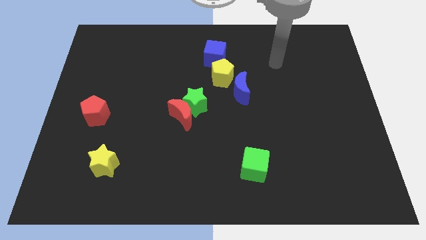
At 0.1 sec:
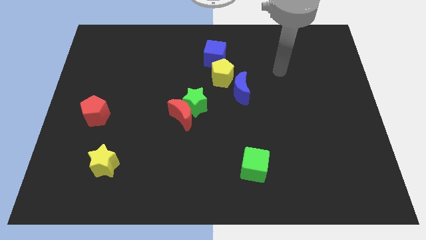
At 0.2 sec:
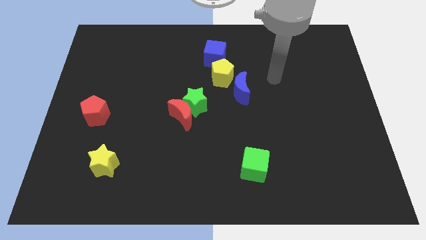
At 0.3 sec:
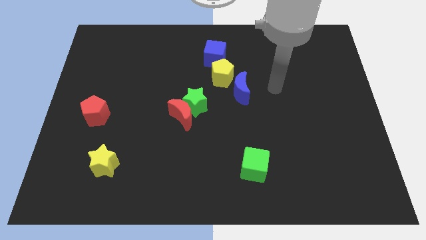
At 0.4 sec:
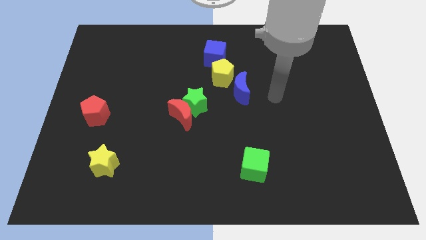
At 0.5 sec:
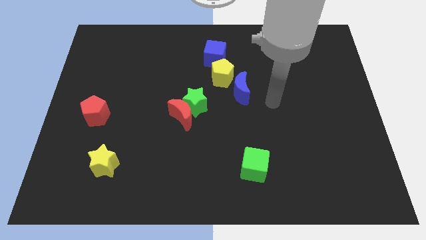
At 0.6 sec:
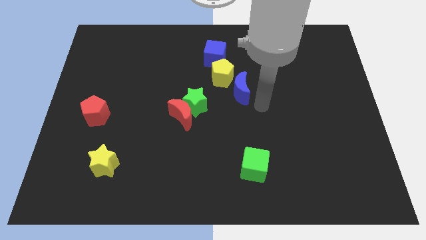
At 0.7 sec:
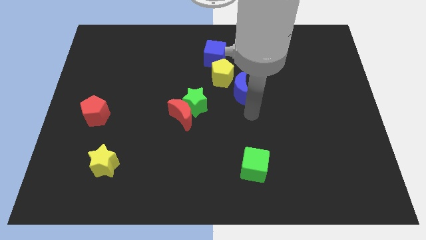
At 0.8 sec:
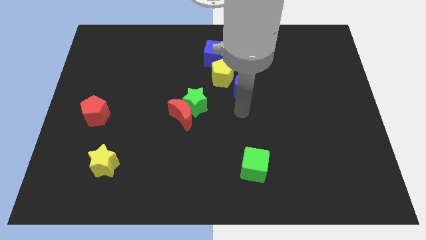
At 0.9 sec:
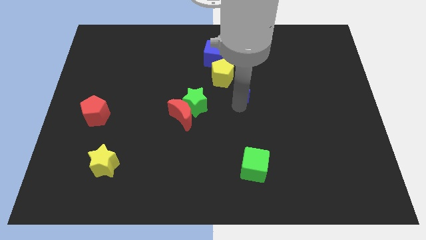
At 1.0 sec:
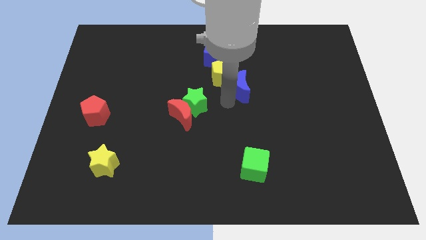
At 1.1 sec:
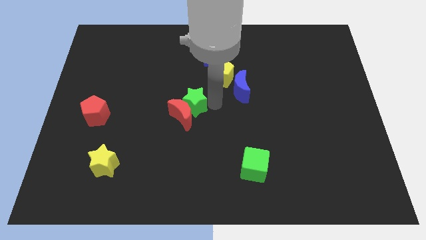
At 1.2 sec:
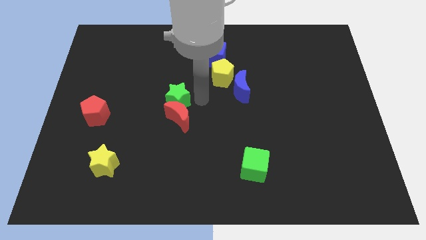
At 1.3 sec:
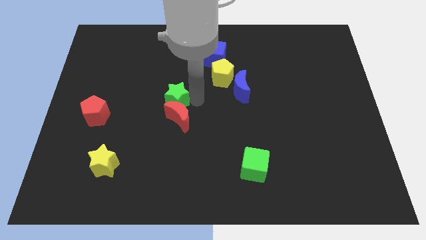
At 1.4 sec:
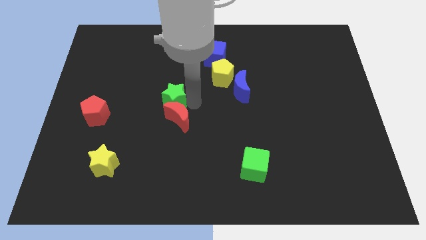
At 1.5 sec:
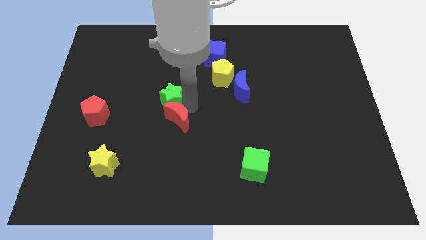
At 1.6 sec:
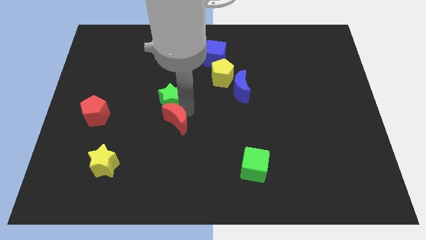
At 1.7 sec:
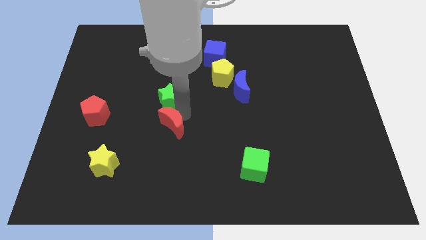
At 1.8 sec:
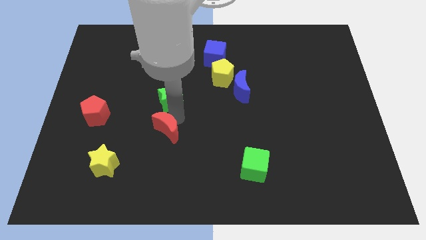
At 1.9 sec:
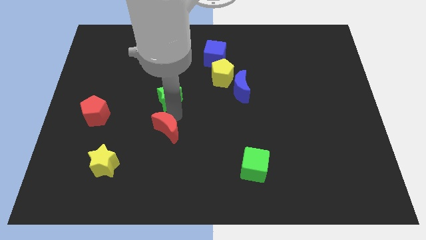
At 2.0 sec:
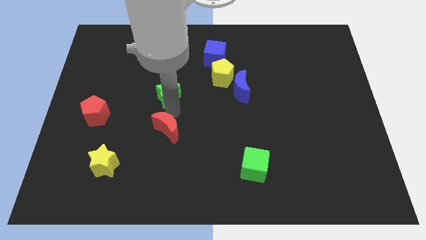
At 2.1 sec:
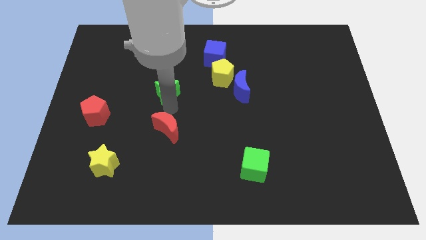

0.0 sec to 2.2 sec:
separate the red moon from the green star

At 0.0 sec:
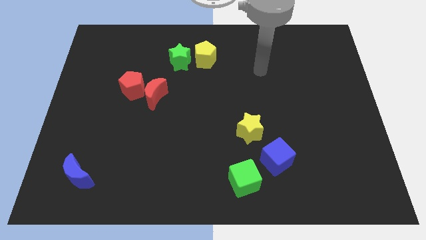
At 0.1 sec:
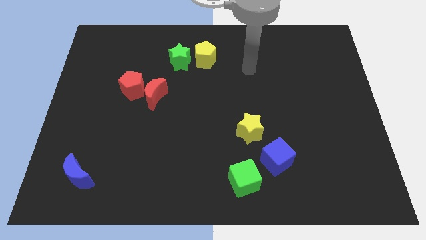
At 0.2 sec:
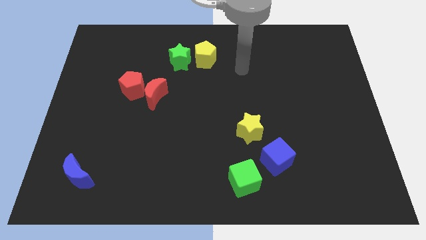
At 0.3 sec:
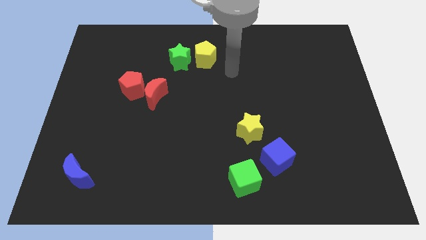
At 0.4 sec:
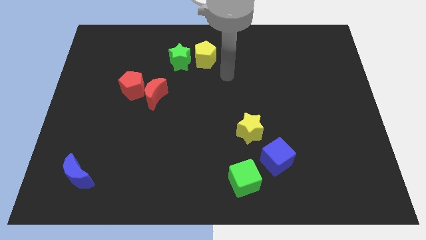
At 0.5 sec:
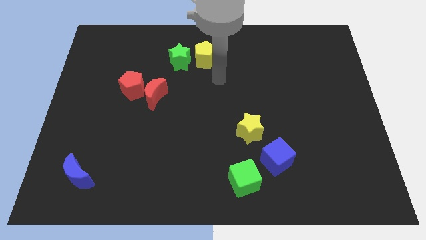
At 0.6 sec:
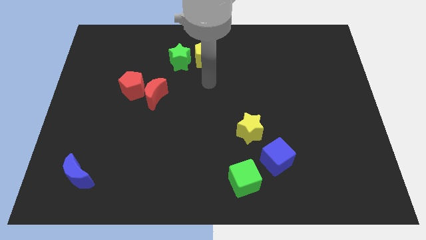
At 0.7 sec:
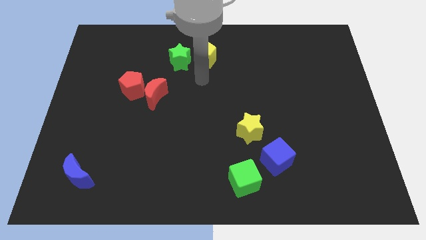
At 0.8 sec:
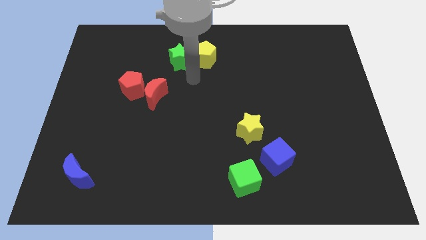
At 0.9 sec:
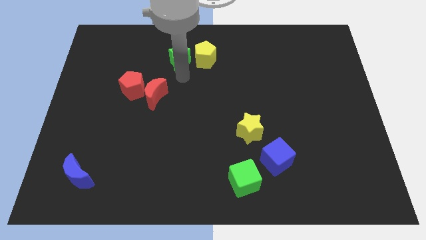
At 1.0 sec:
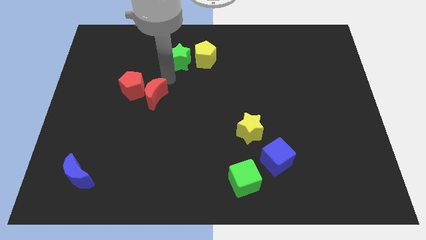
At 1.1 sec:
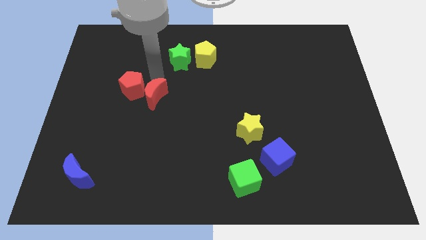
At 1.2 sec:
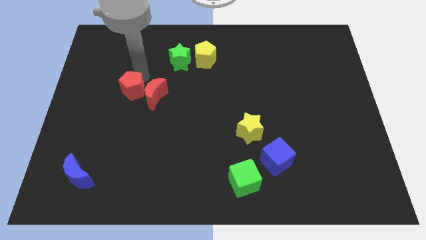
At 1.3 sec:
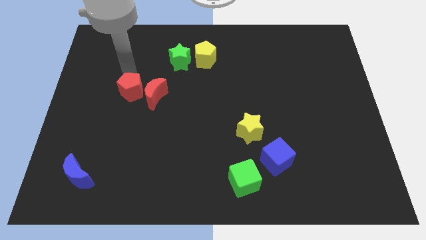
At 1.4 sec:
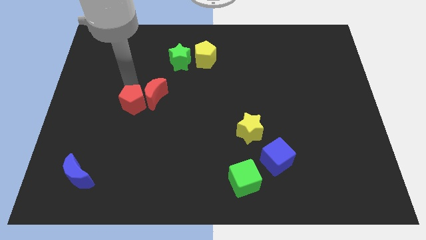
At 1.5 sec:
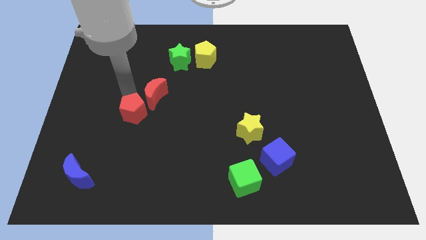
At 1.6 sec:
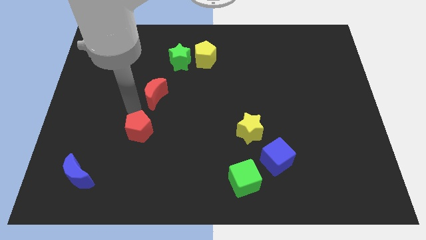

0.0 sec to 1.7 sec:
pull the red moon apart from the red pentagon

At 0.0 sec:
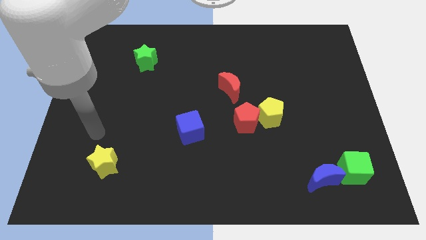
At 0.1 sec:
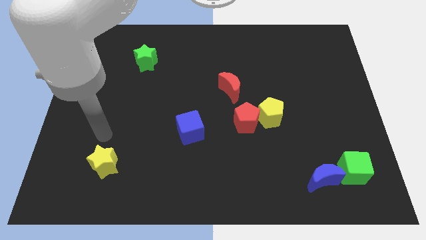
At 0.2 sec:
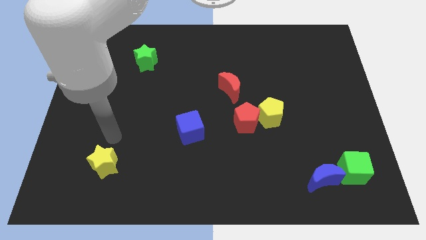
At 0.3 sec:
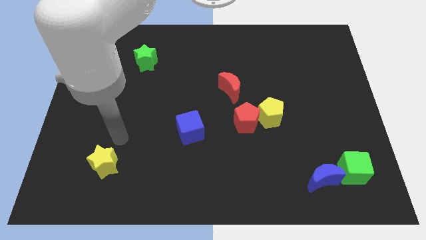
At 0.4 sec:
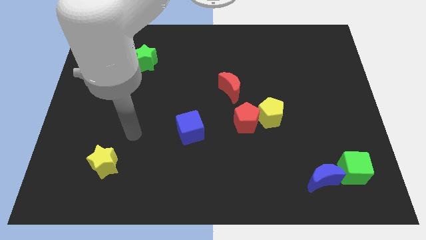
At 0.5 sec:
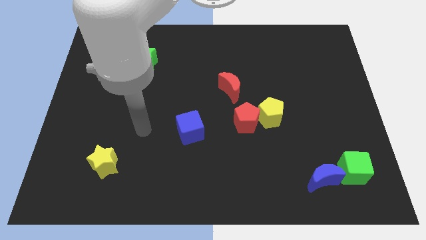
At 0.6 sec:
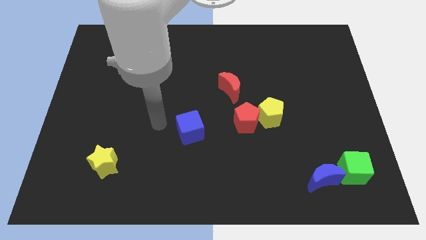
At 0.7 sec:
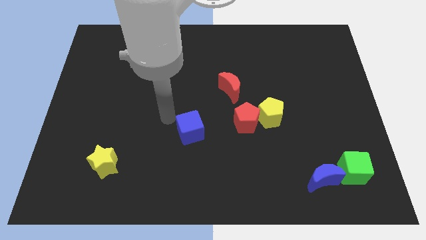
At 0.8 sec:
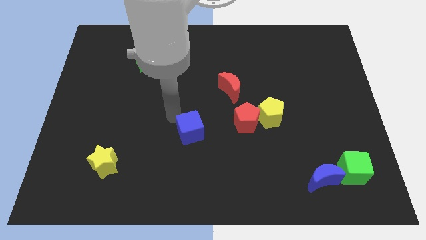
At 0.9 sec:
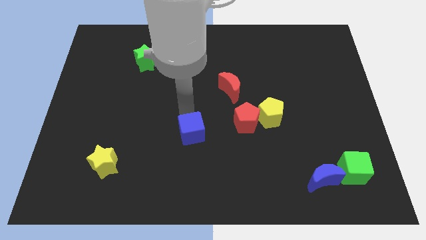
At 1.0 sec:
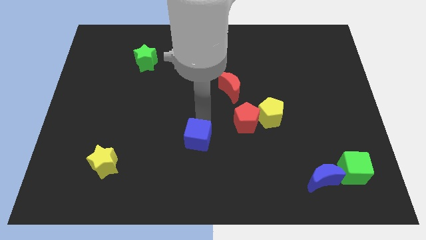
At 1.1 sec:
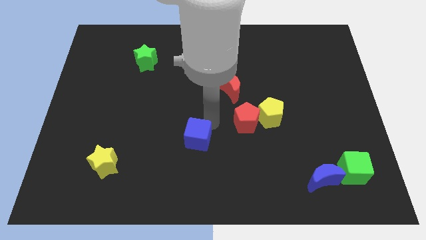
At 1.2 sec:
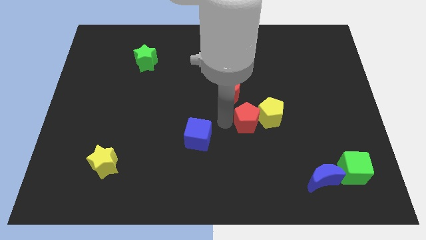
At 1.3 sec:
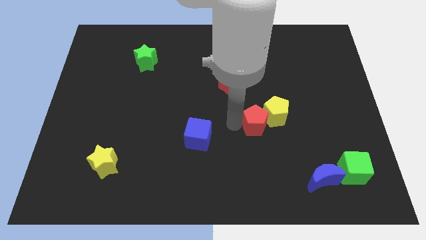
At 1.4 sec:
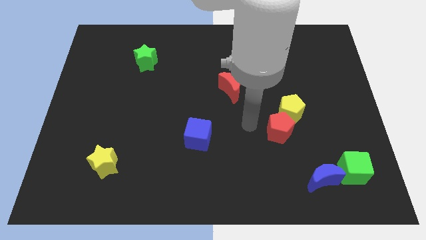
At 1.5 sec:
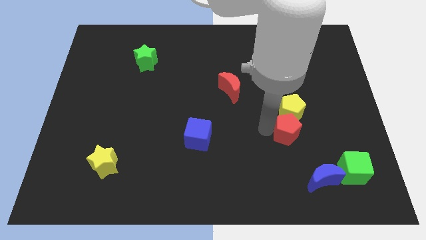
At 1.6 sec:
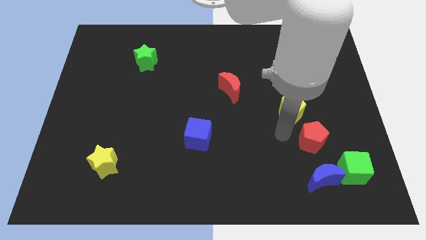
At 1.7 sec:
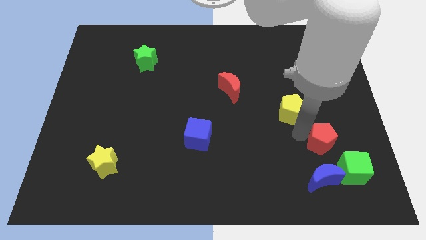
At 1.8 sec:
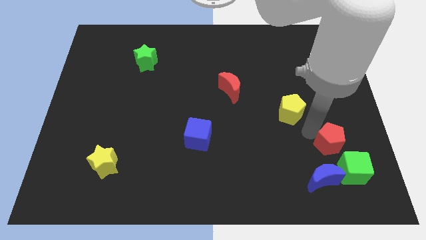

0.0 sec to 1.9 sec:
move the yellow pentagon away from the red pentagon

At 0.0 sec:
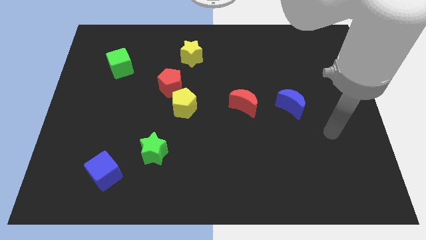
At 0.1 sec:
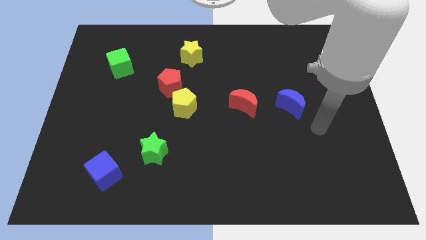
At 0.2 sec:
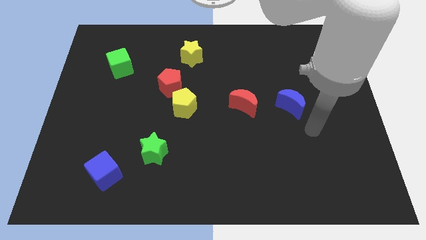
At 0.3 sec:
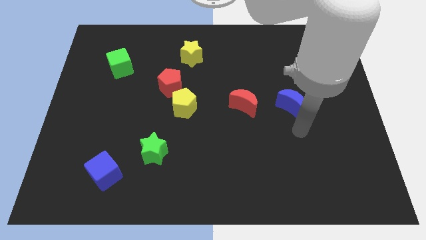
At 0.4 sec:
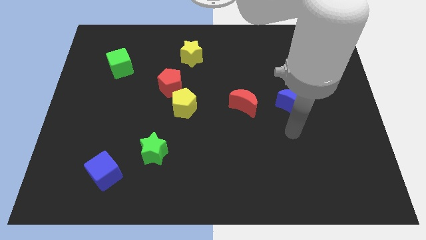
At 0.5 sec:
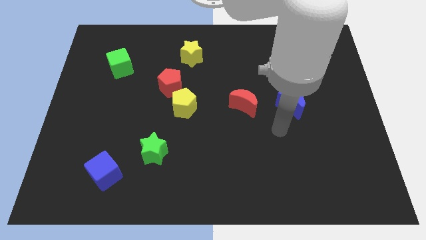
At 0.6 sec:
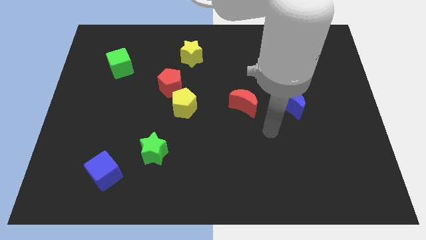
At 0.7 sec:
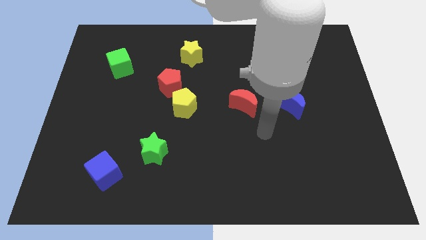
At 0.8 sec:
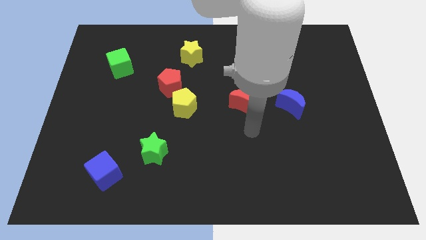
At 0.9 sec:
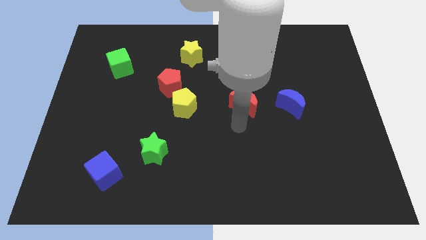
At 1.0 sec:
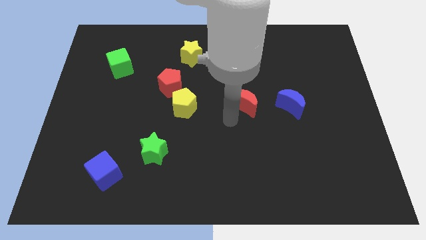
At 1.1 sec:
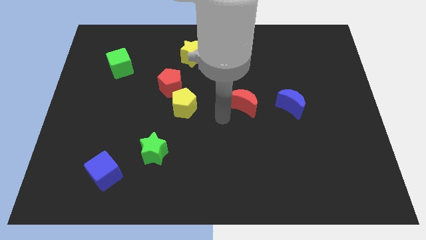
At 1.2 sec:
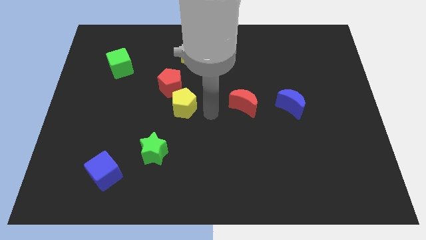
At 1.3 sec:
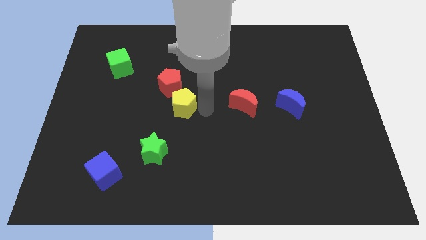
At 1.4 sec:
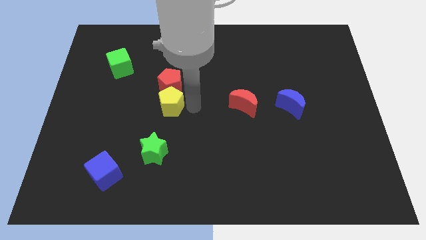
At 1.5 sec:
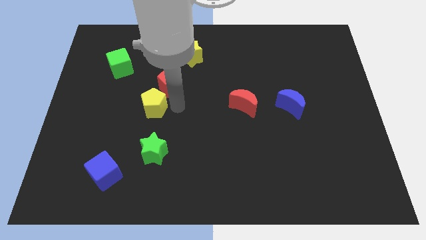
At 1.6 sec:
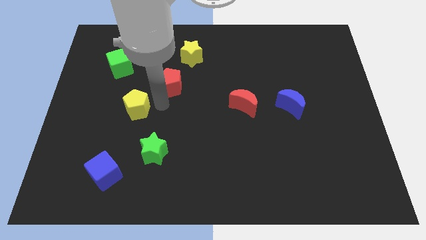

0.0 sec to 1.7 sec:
move the red pentagon away from the yellow pentagon

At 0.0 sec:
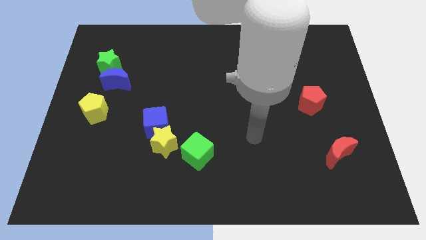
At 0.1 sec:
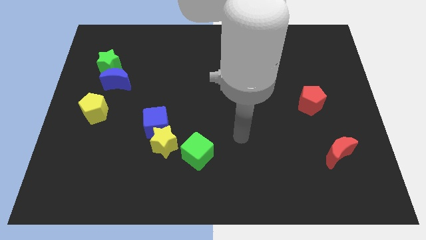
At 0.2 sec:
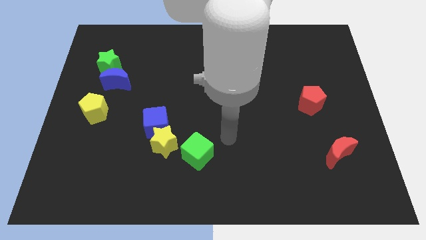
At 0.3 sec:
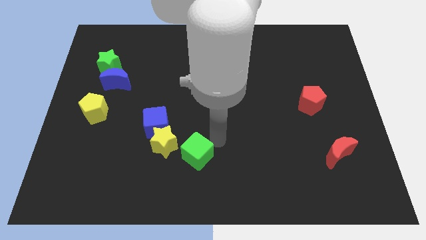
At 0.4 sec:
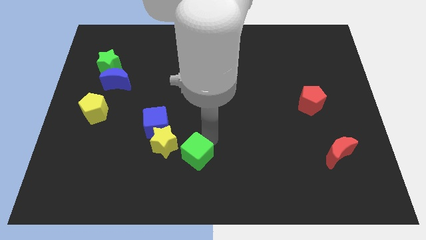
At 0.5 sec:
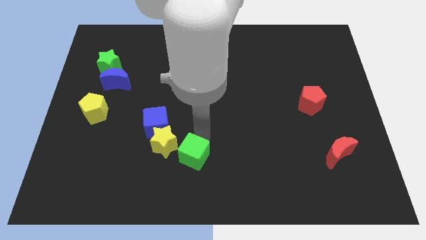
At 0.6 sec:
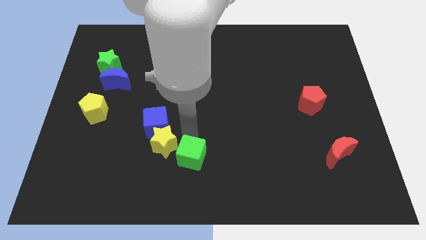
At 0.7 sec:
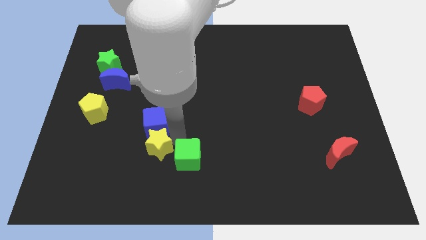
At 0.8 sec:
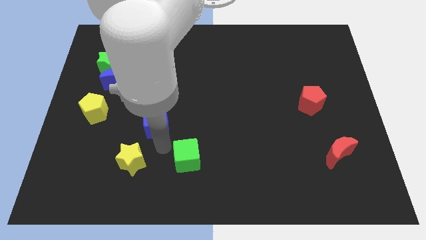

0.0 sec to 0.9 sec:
move the blue cube away from the yellow star

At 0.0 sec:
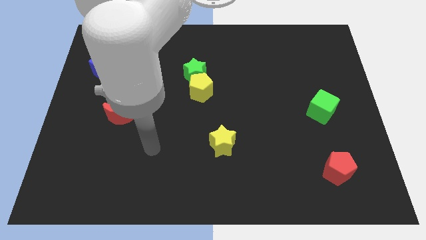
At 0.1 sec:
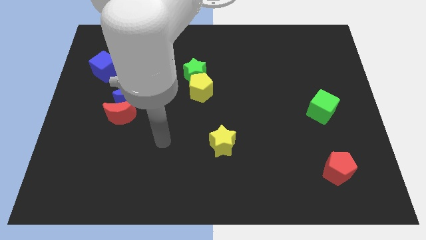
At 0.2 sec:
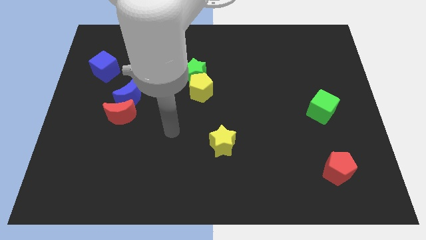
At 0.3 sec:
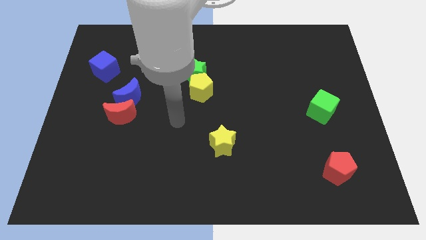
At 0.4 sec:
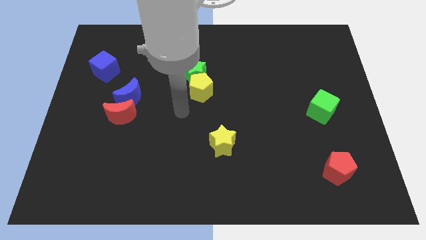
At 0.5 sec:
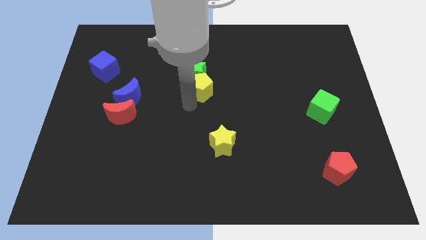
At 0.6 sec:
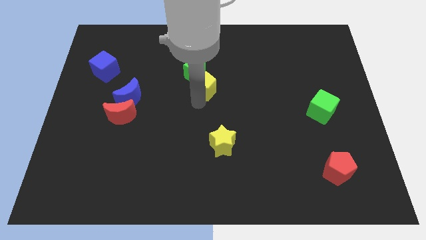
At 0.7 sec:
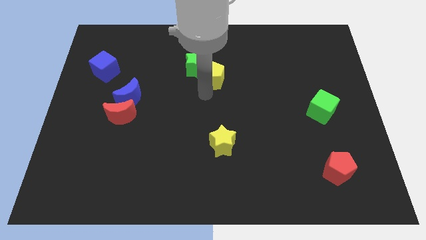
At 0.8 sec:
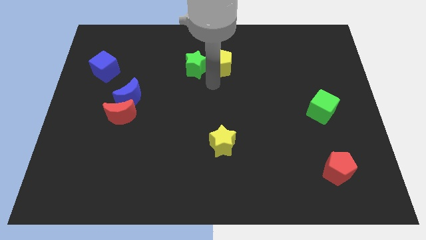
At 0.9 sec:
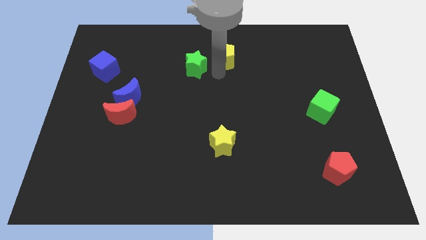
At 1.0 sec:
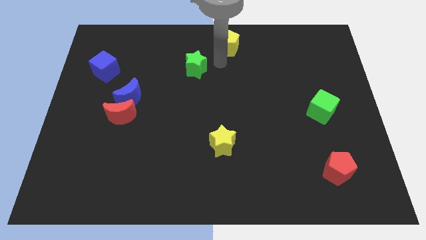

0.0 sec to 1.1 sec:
move the green star away from the yellow pentagon
